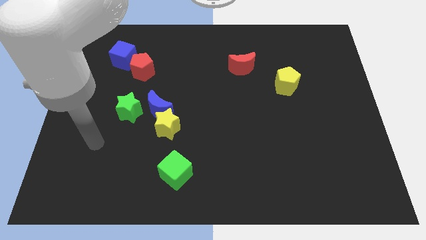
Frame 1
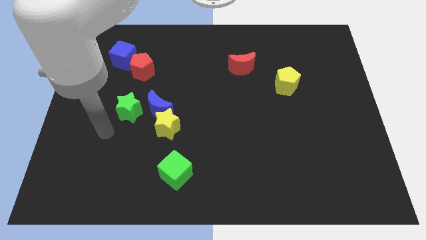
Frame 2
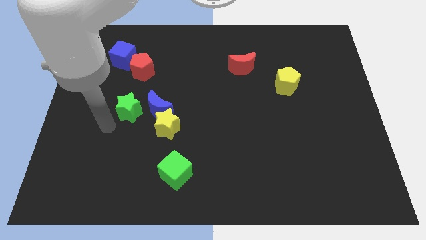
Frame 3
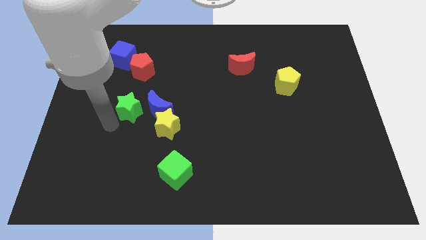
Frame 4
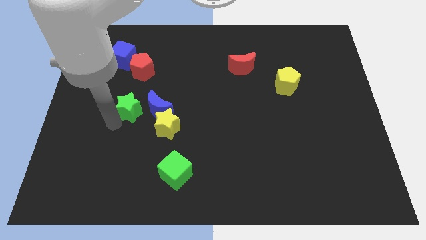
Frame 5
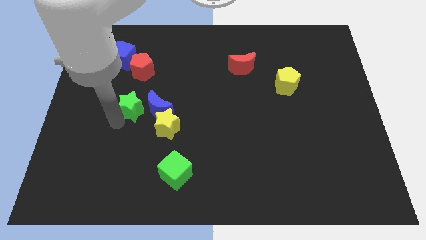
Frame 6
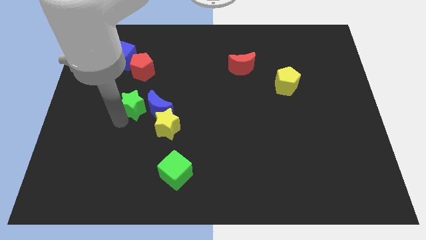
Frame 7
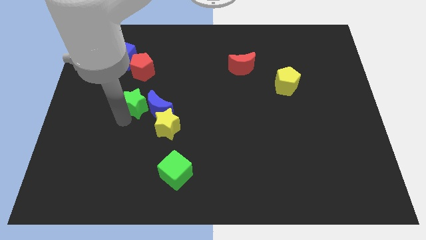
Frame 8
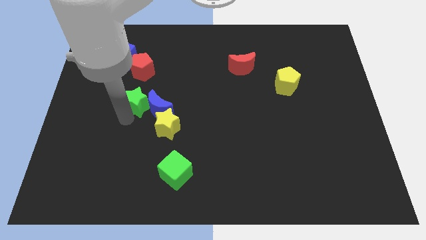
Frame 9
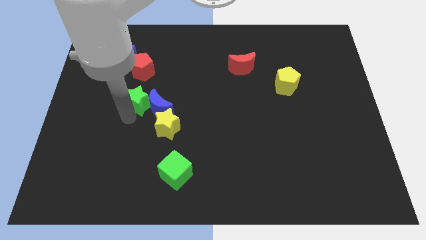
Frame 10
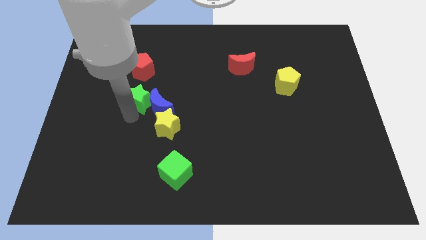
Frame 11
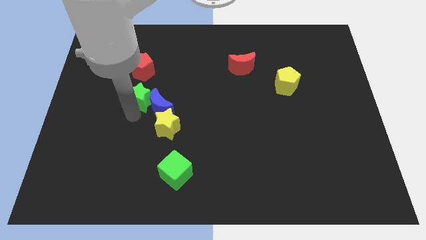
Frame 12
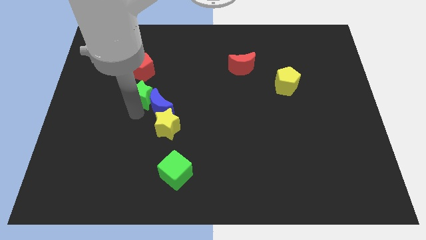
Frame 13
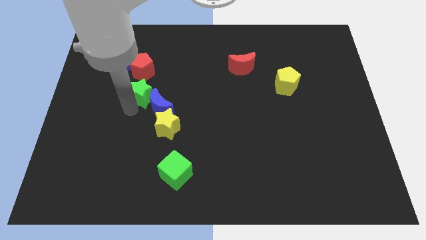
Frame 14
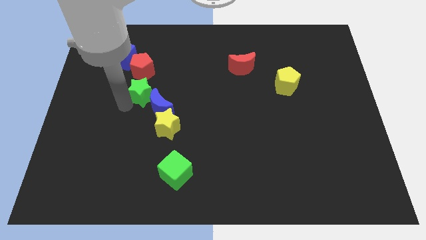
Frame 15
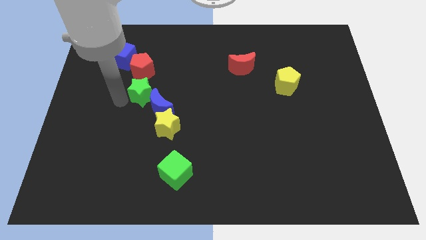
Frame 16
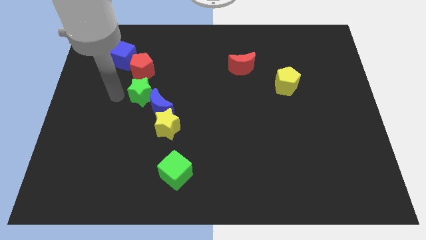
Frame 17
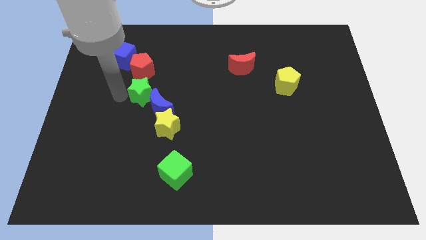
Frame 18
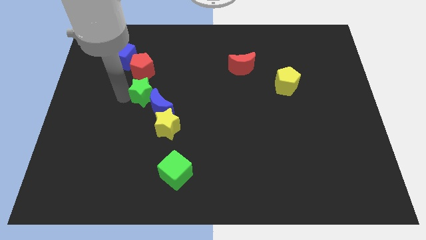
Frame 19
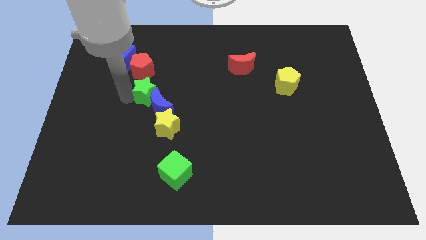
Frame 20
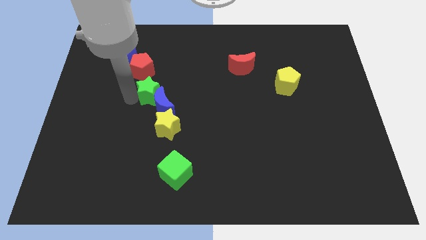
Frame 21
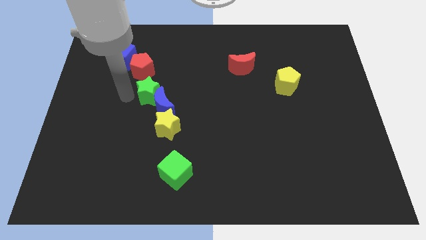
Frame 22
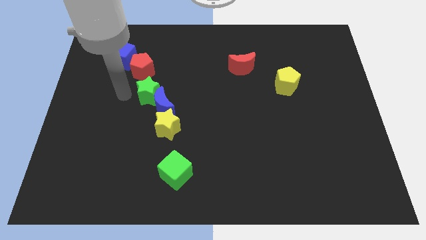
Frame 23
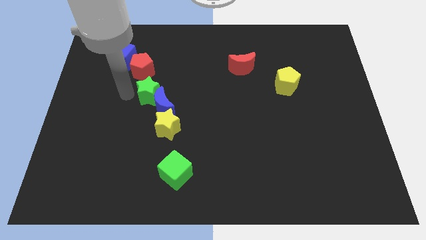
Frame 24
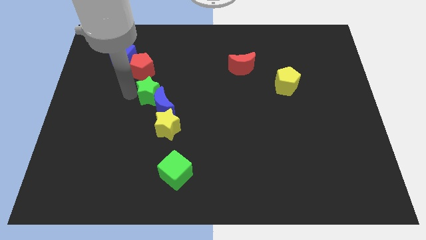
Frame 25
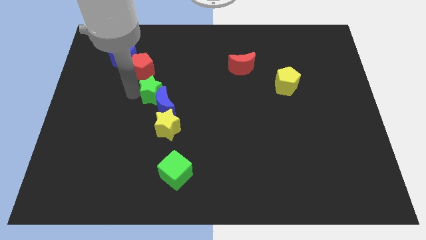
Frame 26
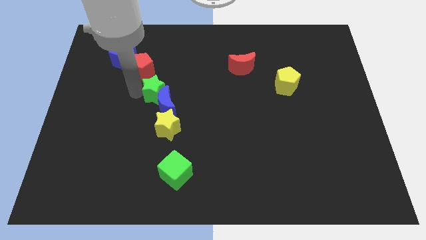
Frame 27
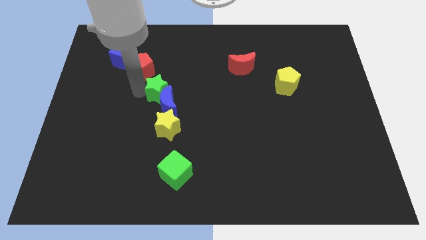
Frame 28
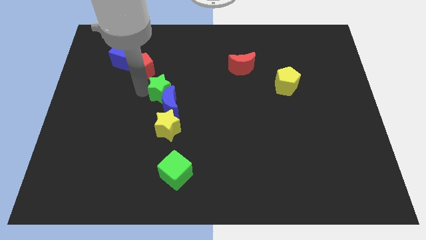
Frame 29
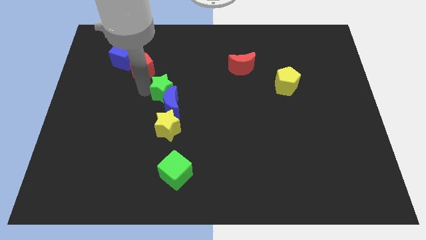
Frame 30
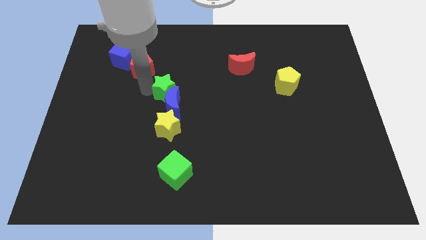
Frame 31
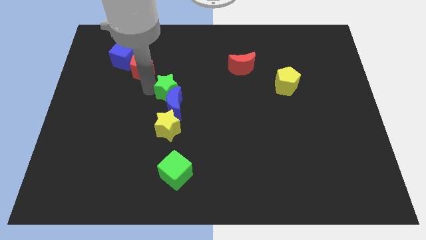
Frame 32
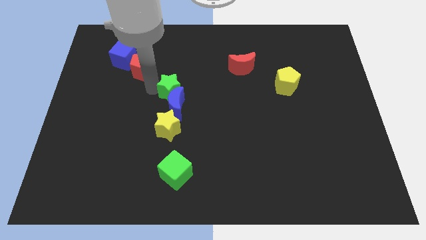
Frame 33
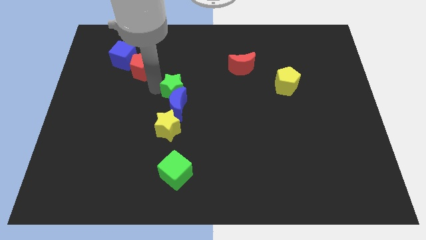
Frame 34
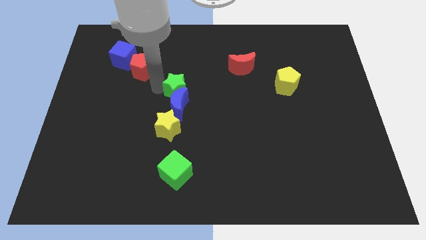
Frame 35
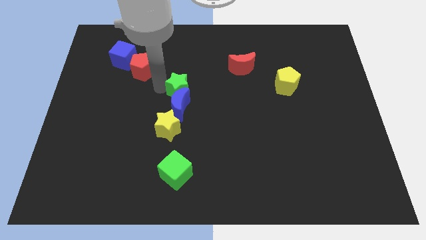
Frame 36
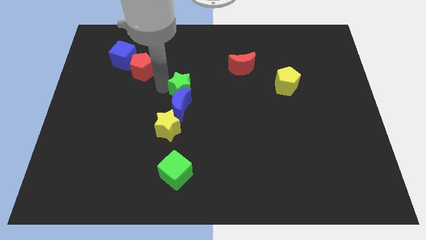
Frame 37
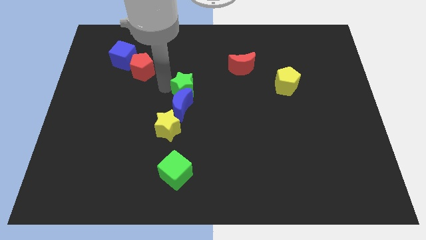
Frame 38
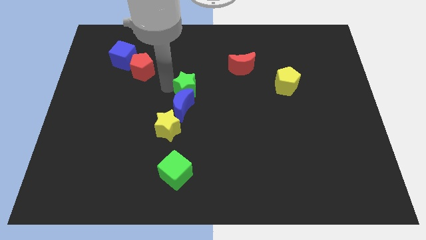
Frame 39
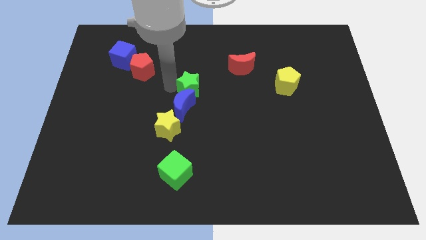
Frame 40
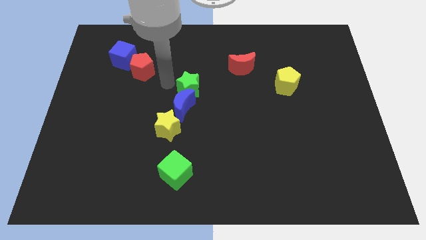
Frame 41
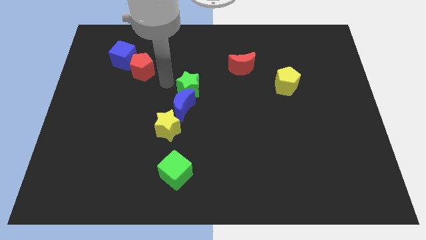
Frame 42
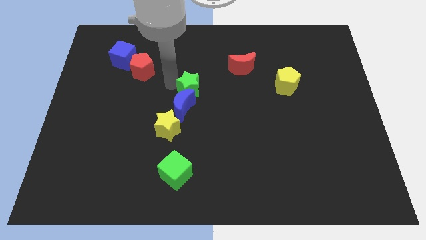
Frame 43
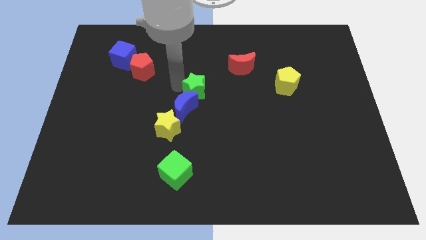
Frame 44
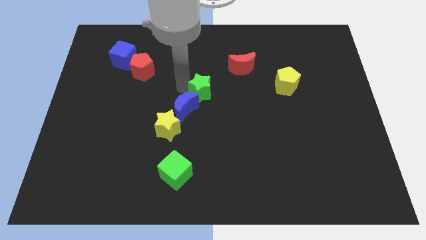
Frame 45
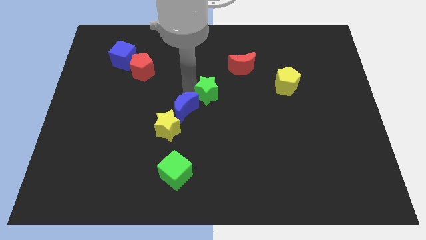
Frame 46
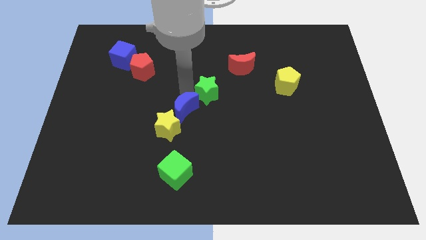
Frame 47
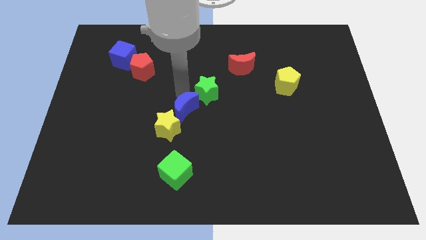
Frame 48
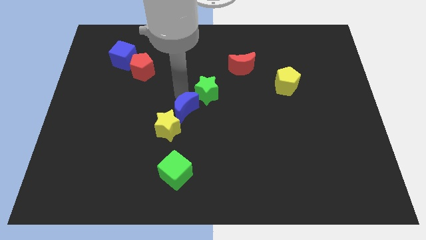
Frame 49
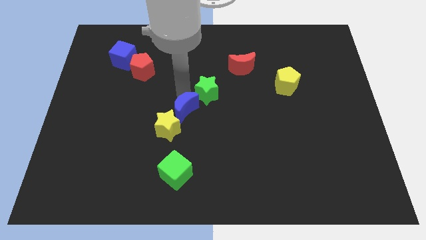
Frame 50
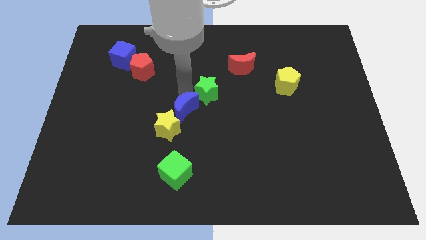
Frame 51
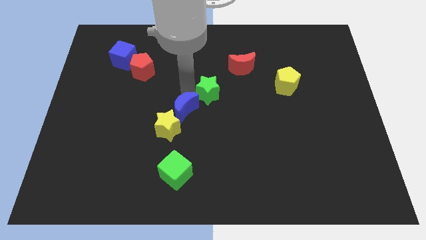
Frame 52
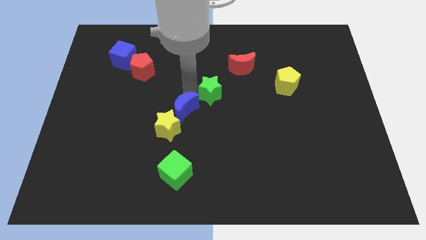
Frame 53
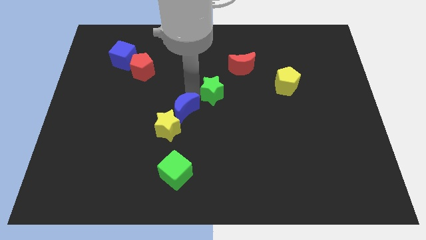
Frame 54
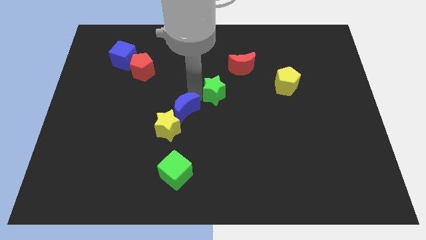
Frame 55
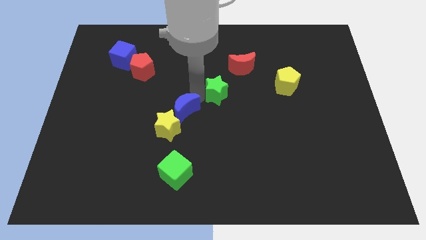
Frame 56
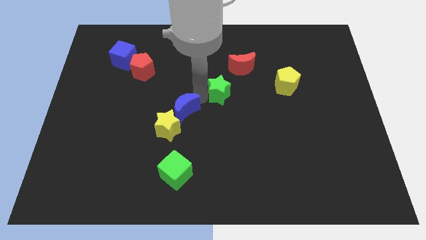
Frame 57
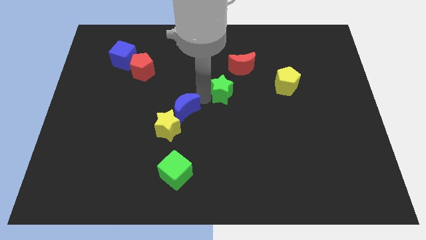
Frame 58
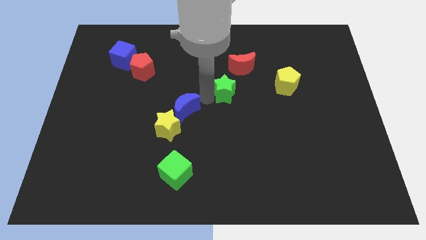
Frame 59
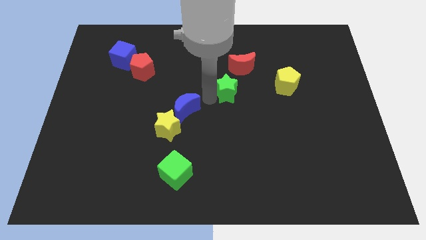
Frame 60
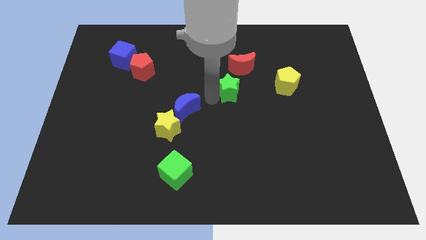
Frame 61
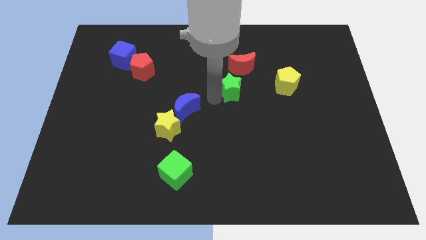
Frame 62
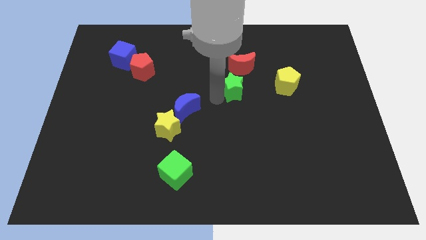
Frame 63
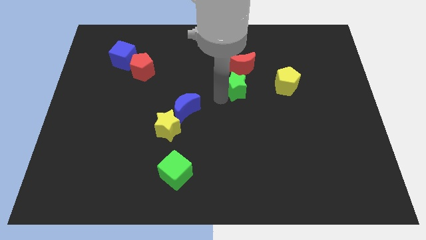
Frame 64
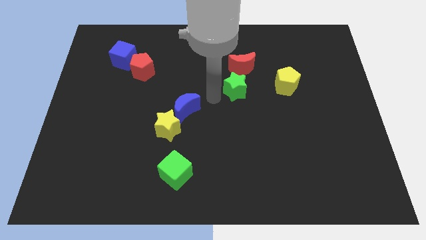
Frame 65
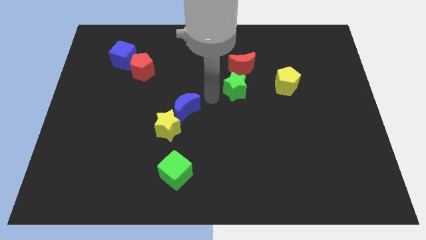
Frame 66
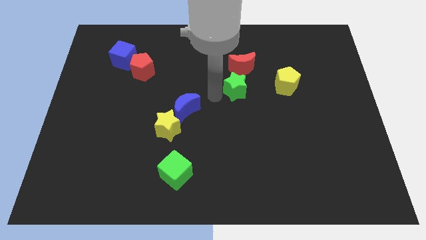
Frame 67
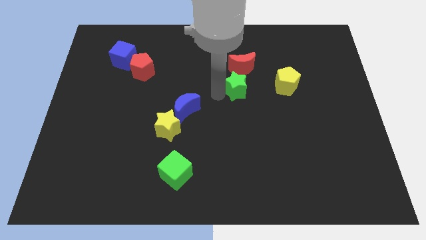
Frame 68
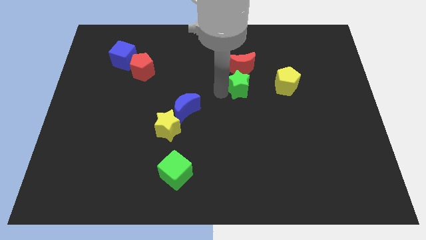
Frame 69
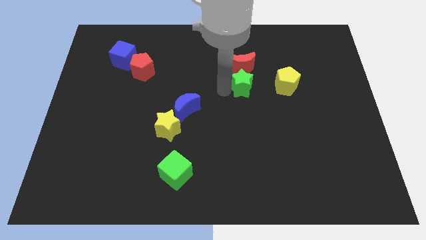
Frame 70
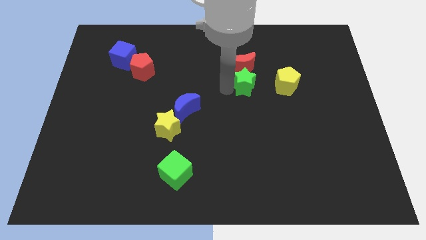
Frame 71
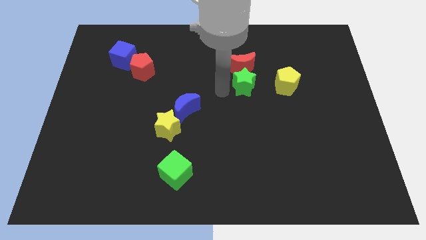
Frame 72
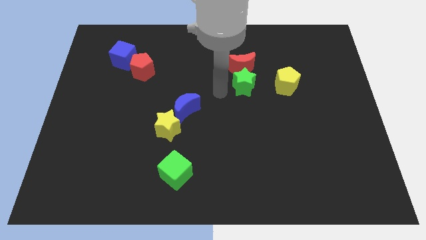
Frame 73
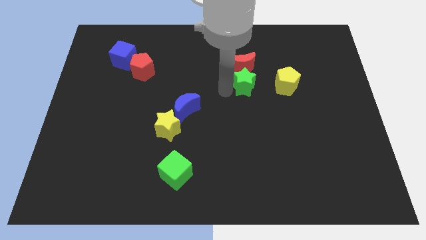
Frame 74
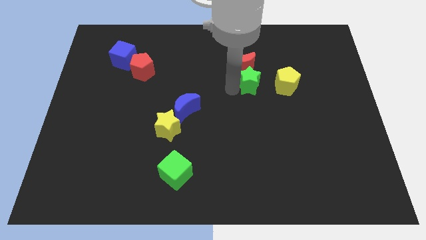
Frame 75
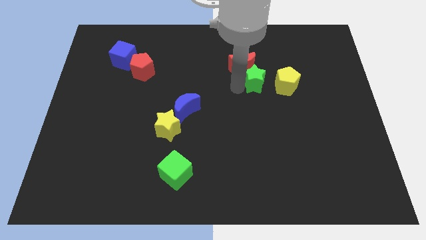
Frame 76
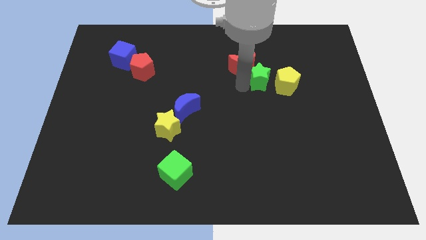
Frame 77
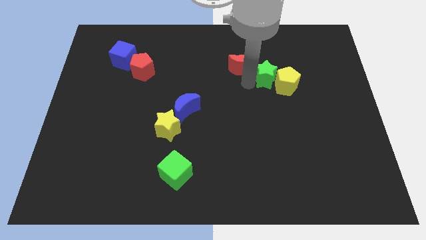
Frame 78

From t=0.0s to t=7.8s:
slide the green star close to the yellow pentagon
